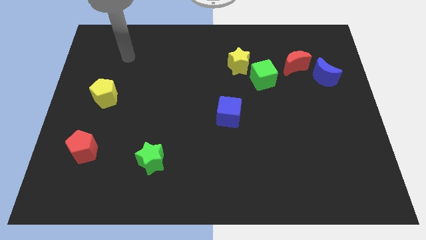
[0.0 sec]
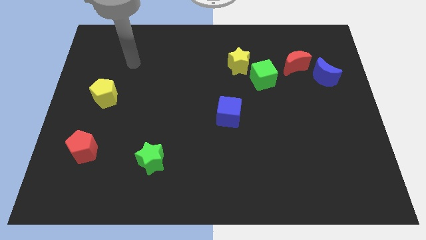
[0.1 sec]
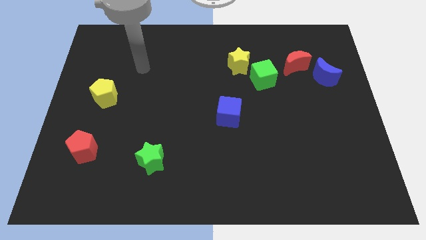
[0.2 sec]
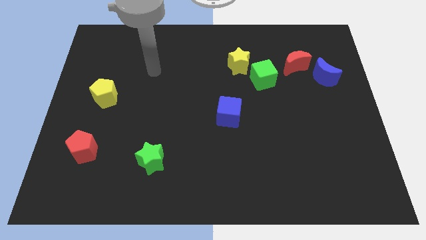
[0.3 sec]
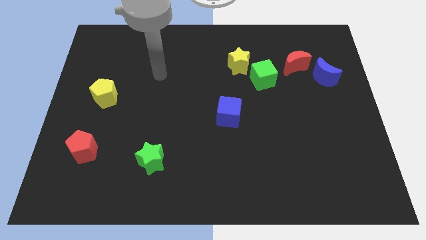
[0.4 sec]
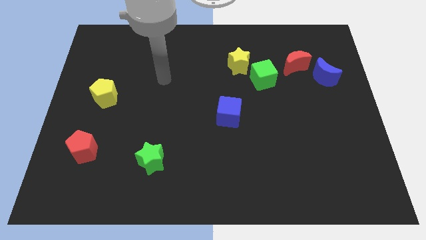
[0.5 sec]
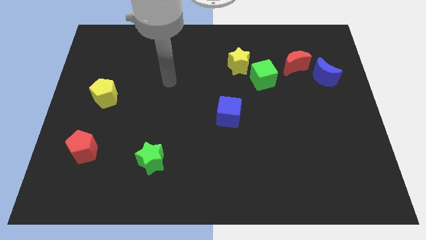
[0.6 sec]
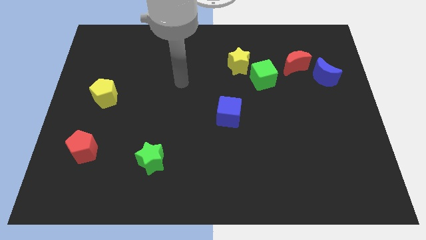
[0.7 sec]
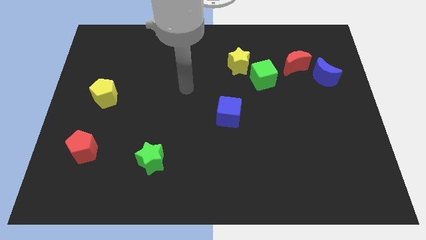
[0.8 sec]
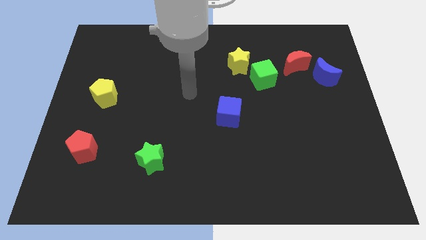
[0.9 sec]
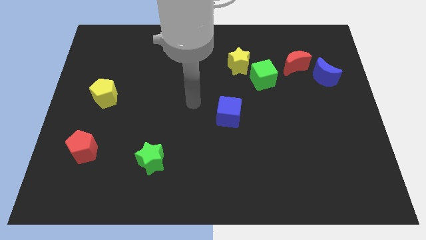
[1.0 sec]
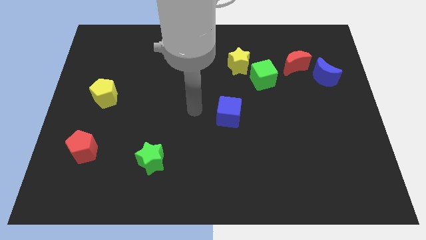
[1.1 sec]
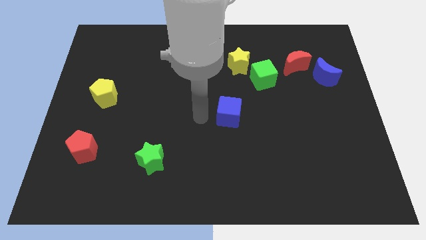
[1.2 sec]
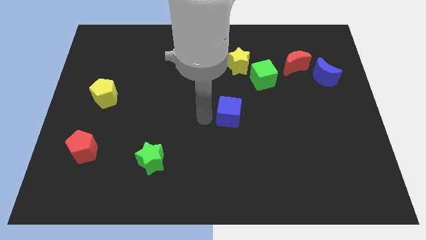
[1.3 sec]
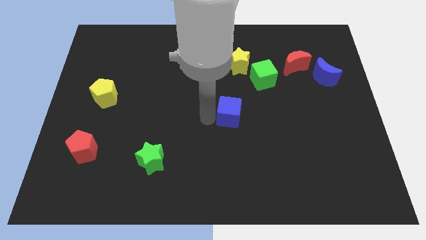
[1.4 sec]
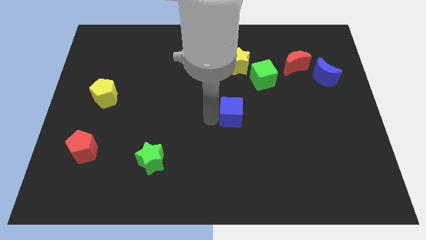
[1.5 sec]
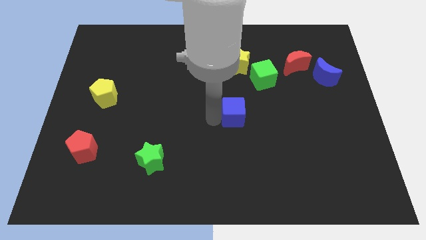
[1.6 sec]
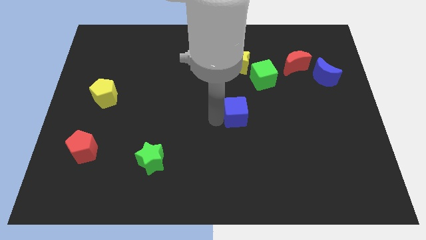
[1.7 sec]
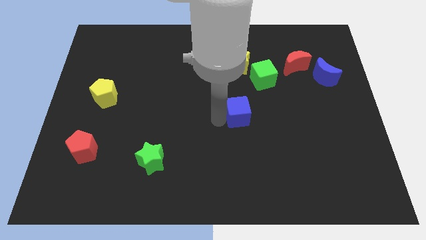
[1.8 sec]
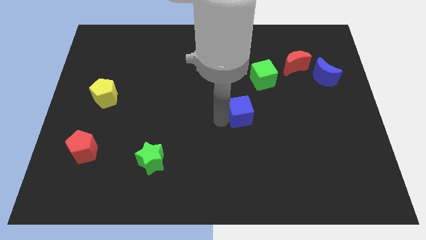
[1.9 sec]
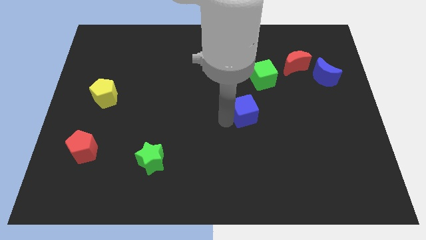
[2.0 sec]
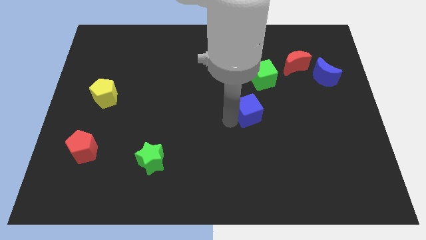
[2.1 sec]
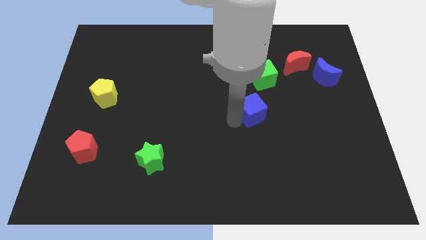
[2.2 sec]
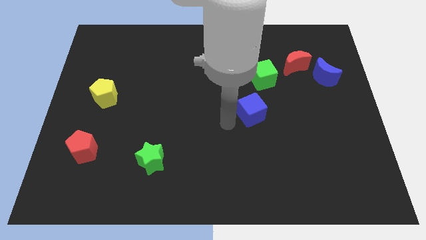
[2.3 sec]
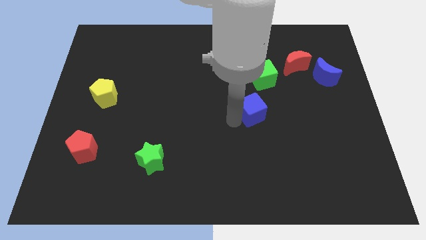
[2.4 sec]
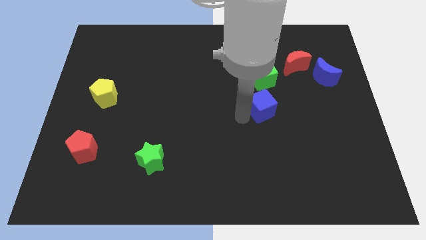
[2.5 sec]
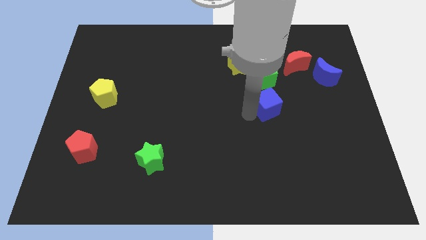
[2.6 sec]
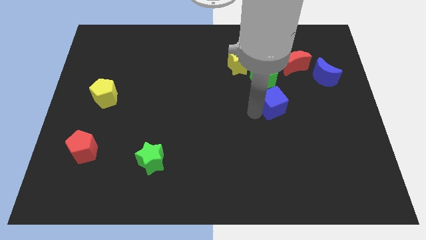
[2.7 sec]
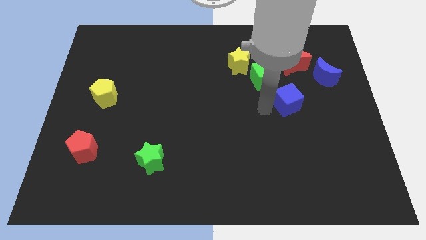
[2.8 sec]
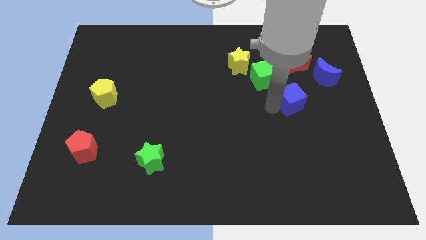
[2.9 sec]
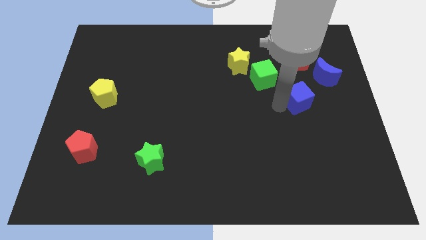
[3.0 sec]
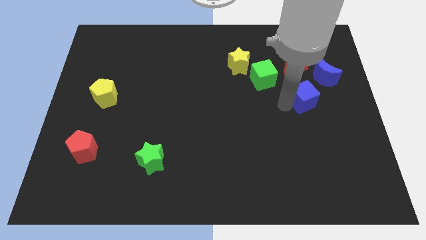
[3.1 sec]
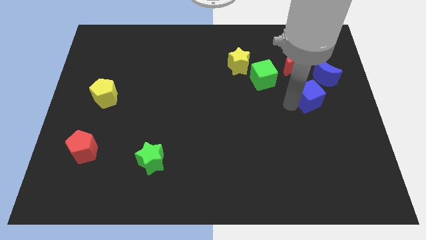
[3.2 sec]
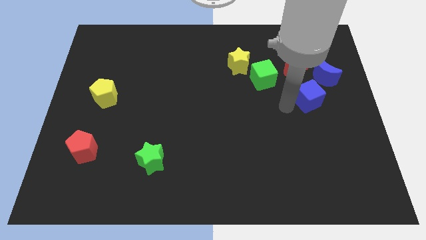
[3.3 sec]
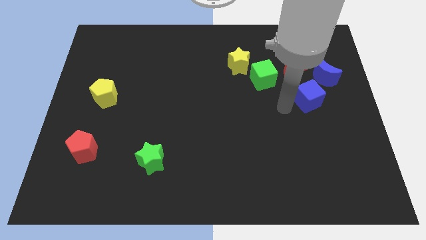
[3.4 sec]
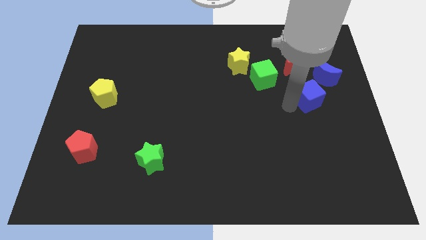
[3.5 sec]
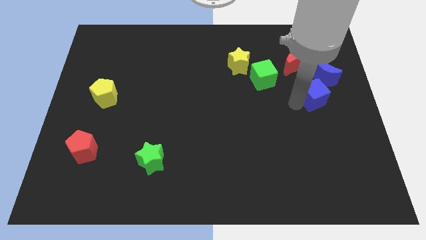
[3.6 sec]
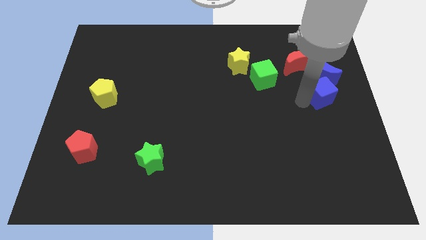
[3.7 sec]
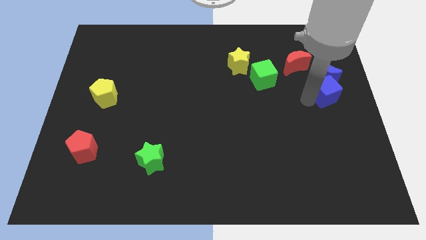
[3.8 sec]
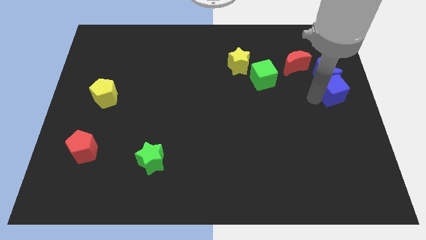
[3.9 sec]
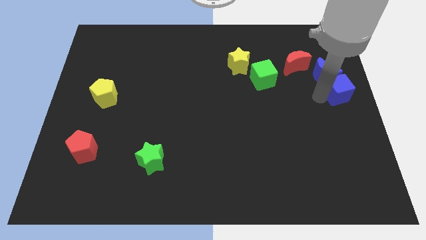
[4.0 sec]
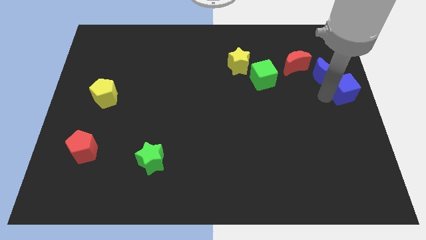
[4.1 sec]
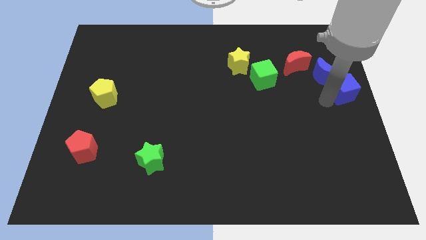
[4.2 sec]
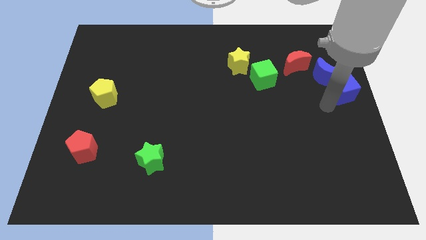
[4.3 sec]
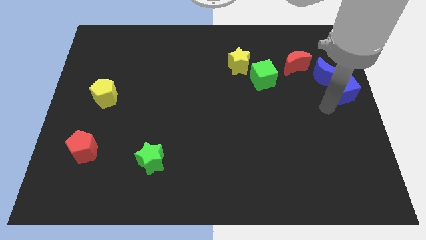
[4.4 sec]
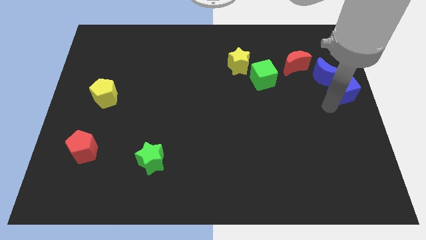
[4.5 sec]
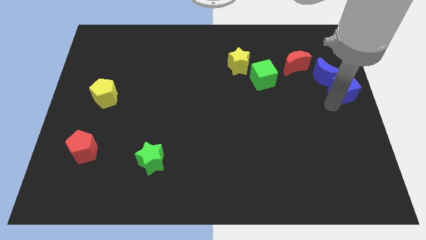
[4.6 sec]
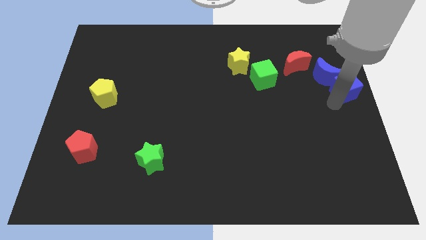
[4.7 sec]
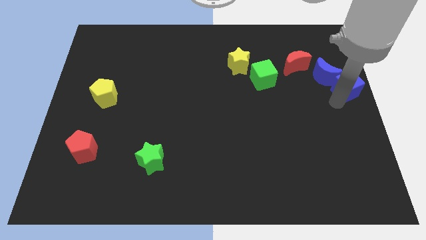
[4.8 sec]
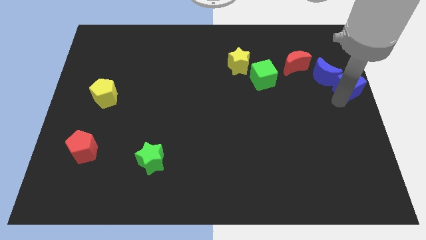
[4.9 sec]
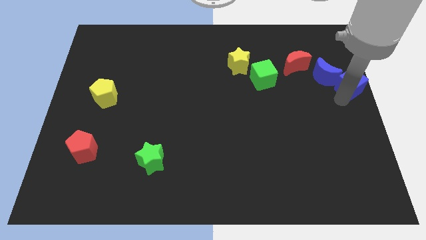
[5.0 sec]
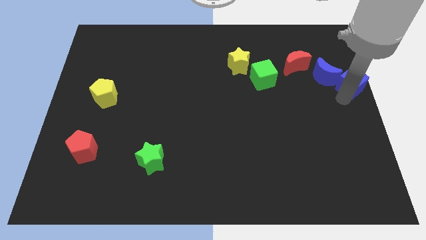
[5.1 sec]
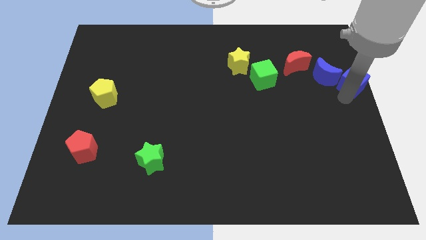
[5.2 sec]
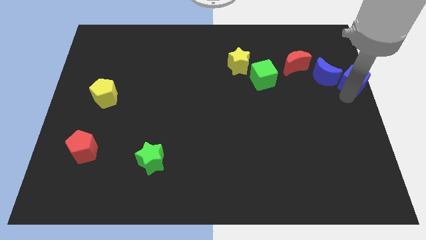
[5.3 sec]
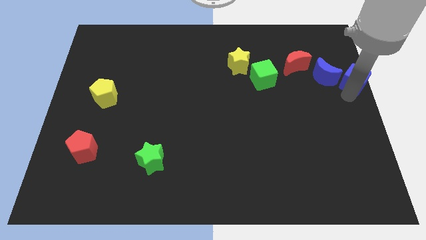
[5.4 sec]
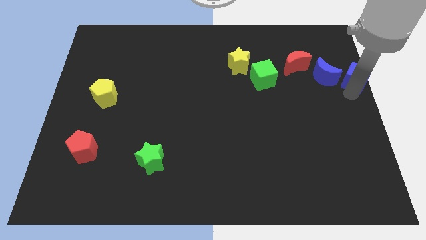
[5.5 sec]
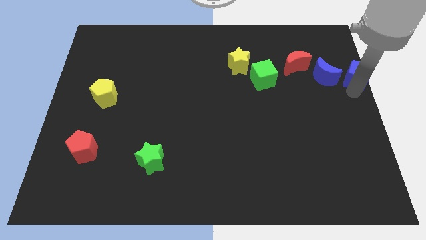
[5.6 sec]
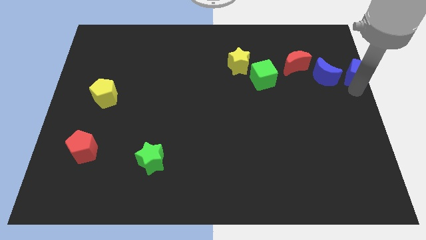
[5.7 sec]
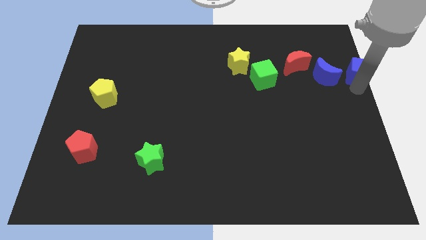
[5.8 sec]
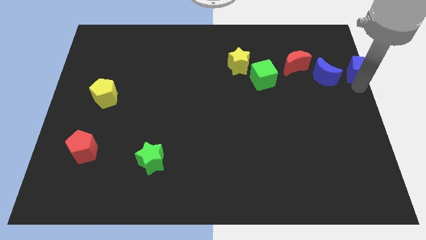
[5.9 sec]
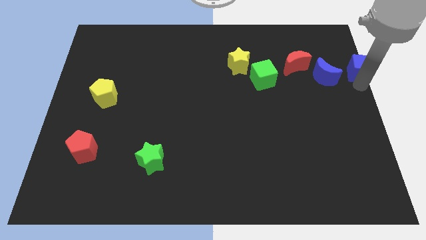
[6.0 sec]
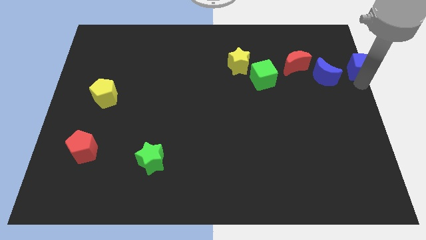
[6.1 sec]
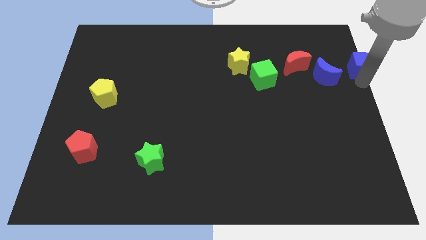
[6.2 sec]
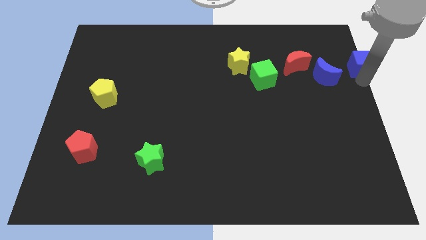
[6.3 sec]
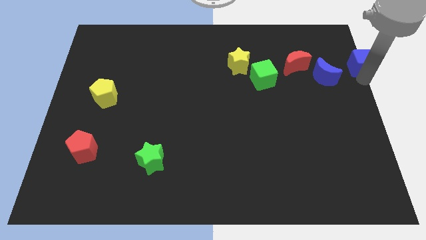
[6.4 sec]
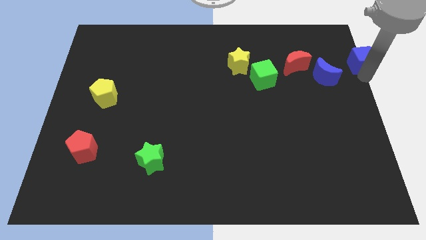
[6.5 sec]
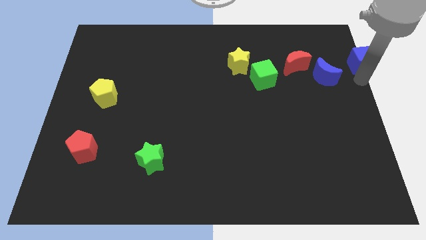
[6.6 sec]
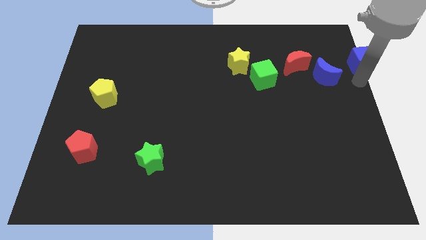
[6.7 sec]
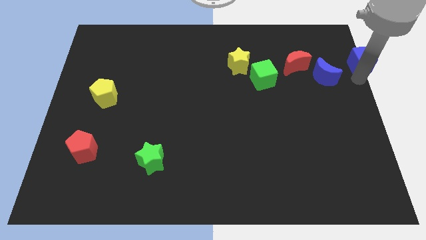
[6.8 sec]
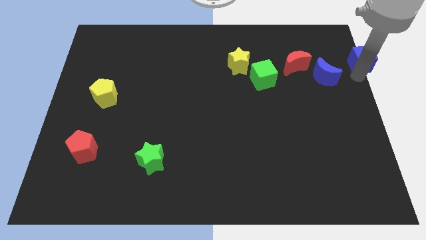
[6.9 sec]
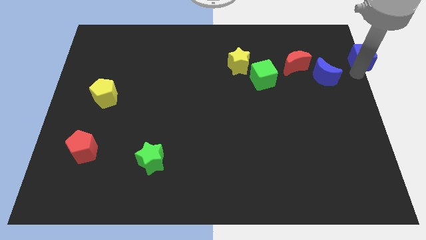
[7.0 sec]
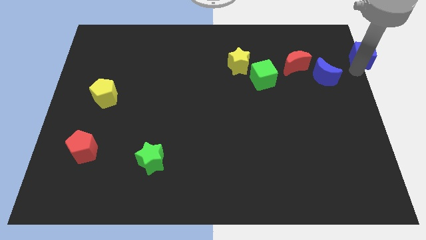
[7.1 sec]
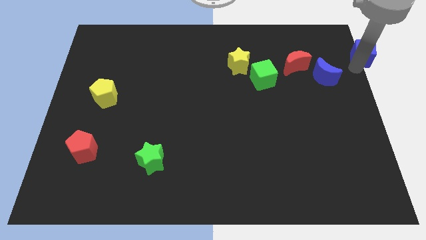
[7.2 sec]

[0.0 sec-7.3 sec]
move the blue cube to the top right
